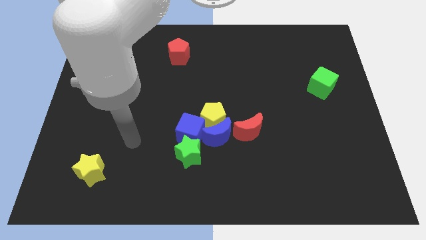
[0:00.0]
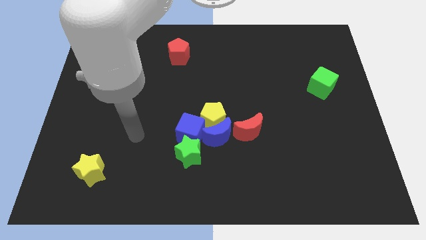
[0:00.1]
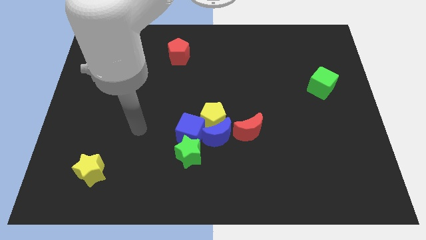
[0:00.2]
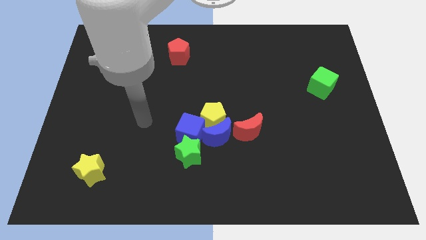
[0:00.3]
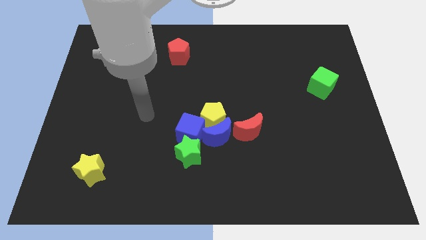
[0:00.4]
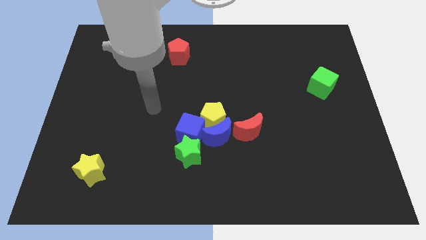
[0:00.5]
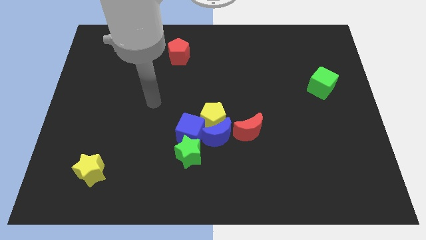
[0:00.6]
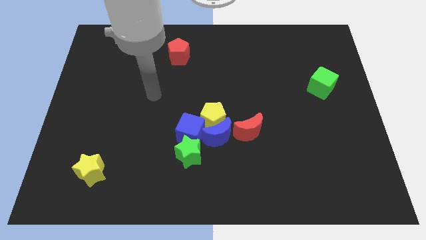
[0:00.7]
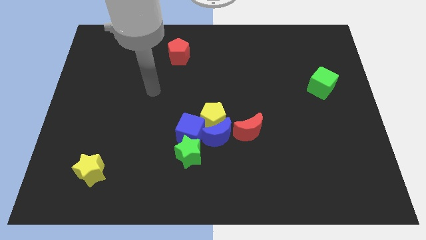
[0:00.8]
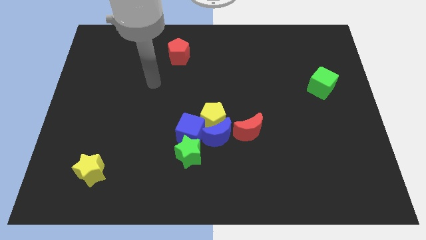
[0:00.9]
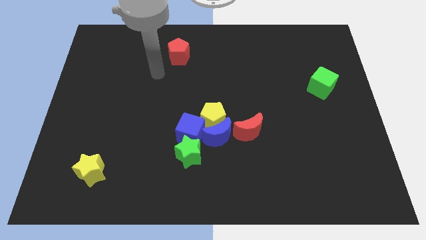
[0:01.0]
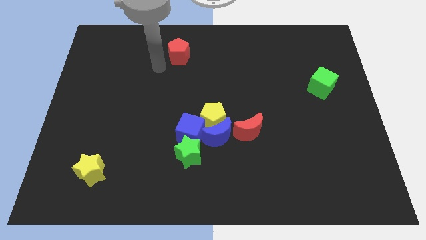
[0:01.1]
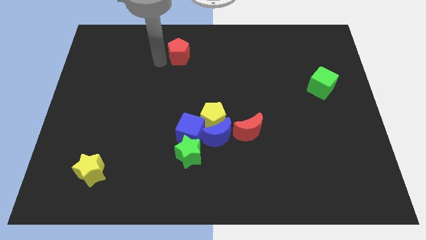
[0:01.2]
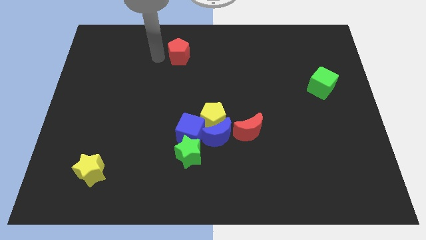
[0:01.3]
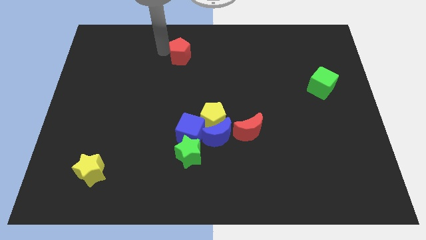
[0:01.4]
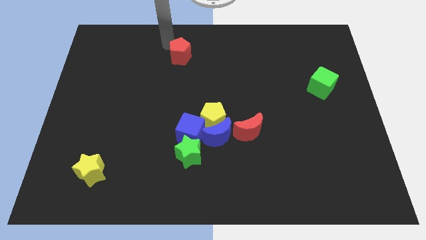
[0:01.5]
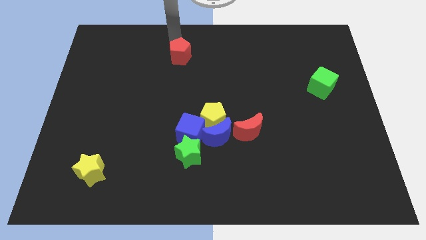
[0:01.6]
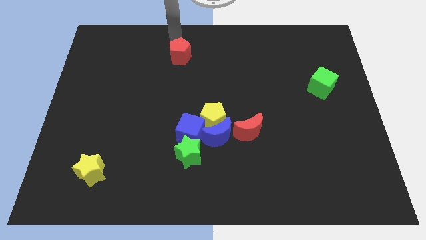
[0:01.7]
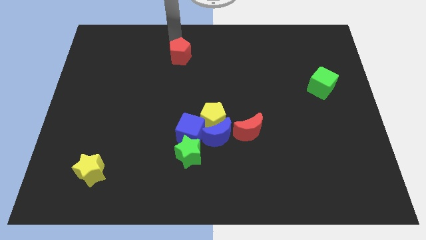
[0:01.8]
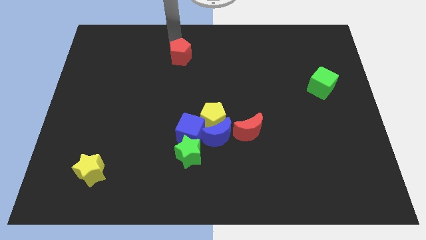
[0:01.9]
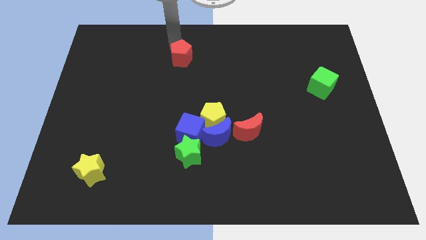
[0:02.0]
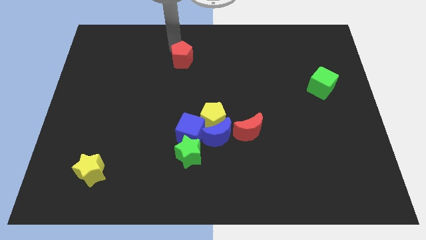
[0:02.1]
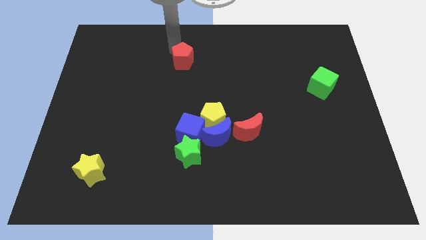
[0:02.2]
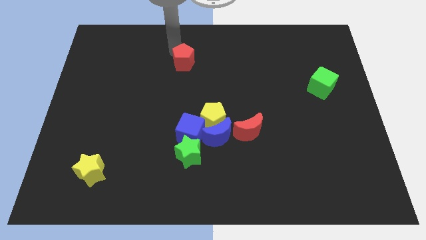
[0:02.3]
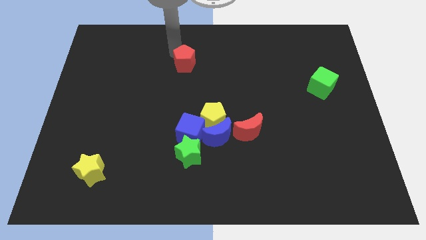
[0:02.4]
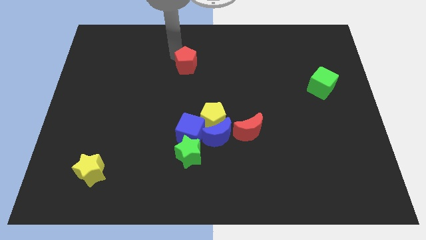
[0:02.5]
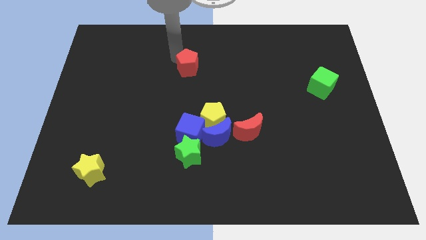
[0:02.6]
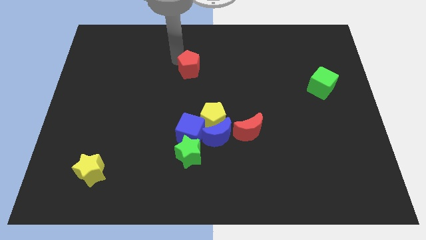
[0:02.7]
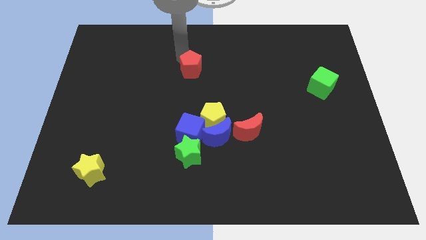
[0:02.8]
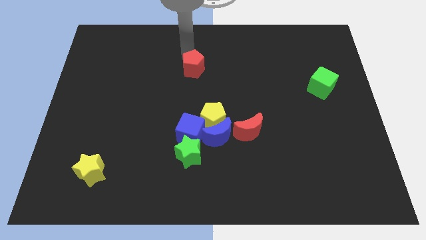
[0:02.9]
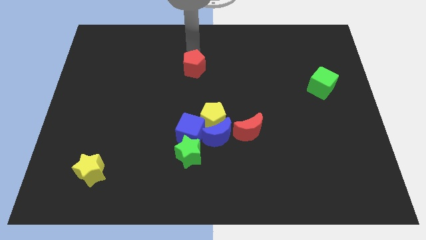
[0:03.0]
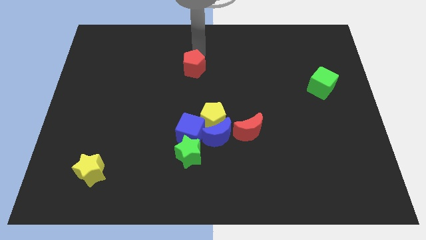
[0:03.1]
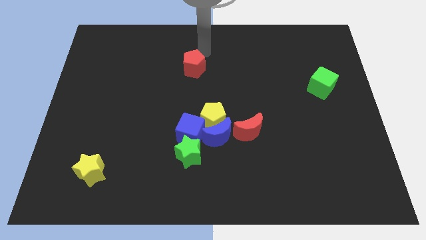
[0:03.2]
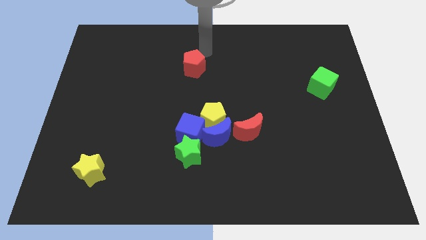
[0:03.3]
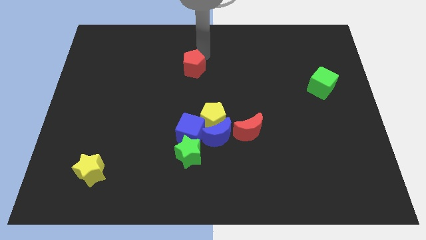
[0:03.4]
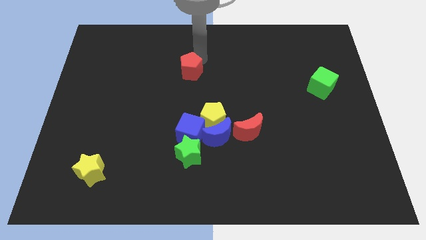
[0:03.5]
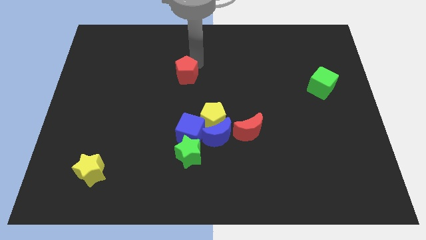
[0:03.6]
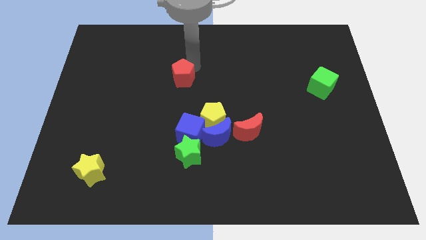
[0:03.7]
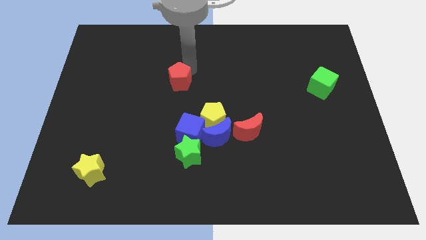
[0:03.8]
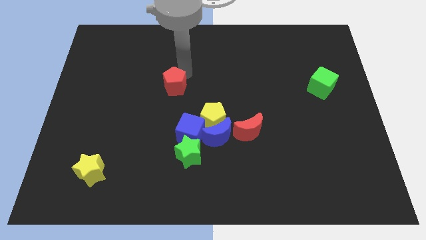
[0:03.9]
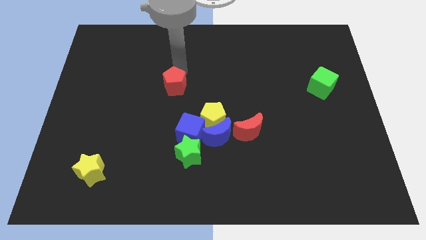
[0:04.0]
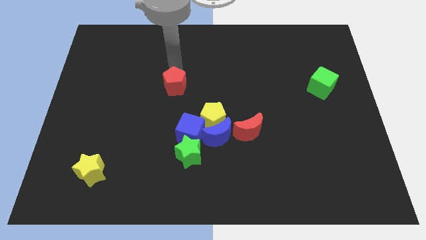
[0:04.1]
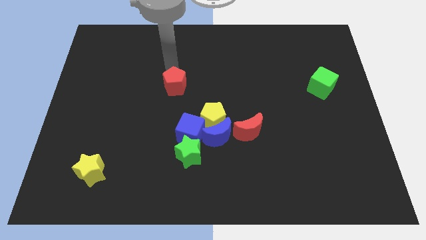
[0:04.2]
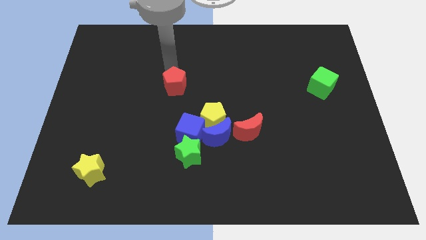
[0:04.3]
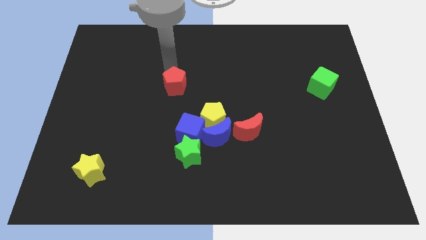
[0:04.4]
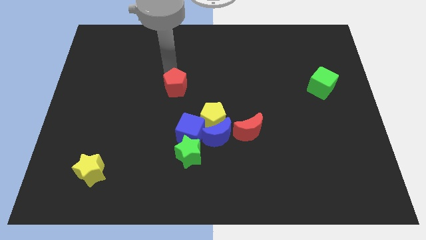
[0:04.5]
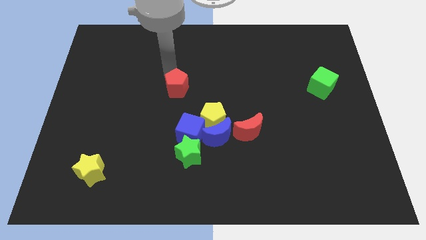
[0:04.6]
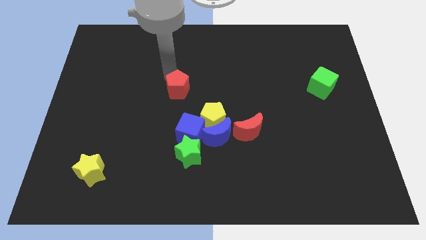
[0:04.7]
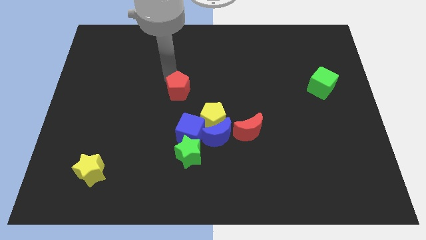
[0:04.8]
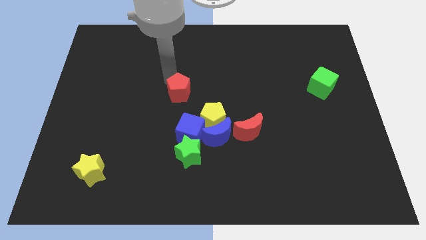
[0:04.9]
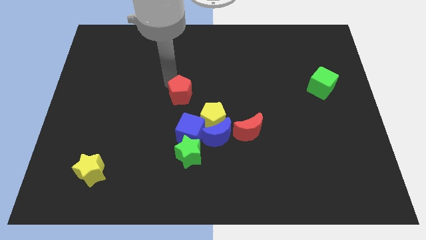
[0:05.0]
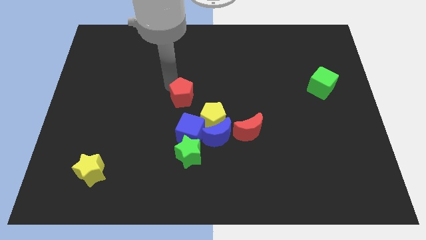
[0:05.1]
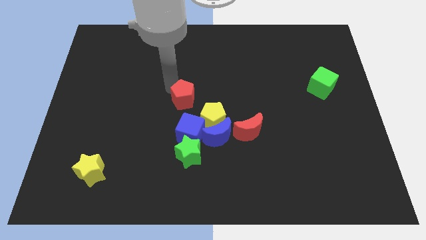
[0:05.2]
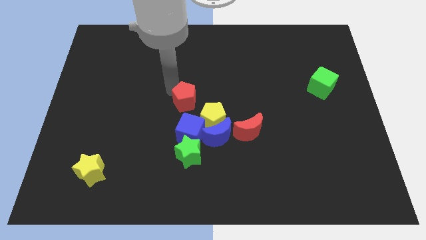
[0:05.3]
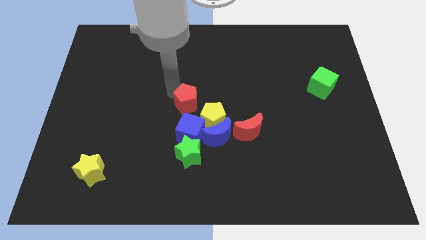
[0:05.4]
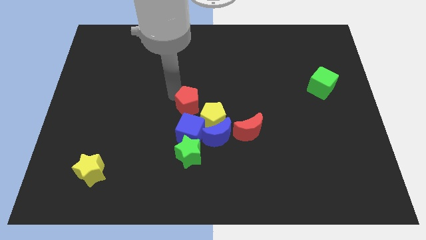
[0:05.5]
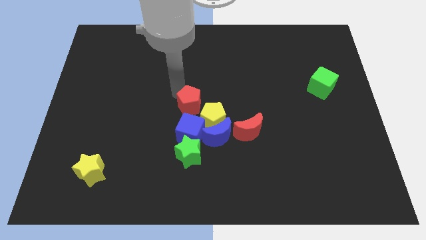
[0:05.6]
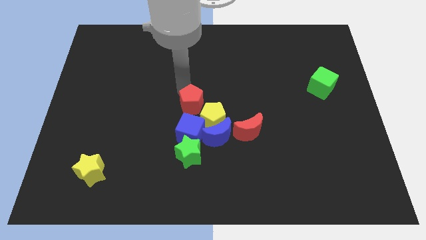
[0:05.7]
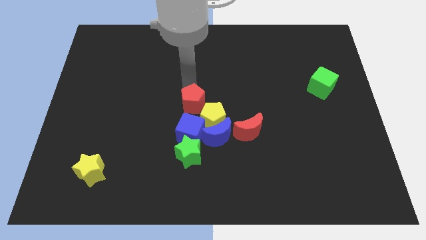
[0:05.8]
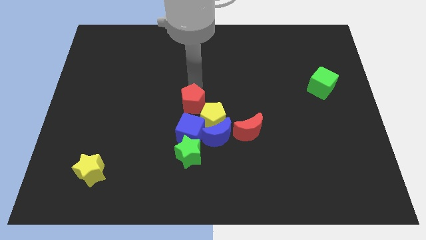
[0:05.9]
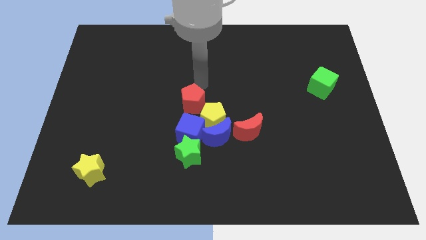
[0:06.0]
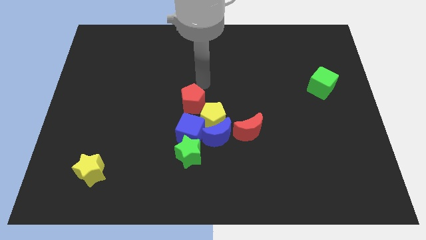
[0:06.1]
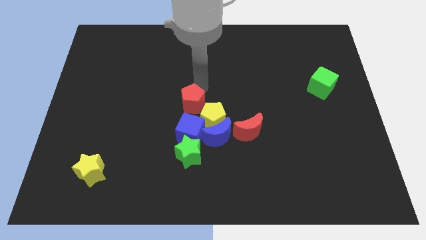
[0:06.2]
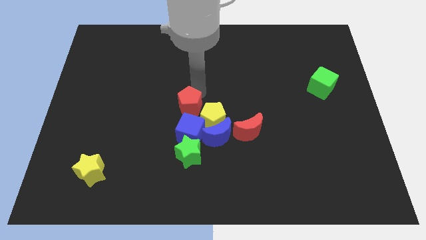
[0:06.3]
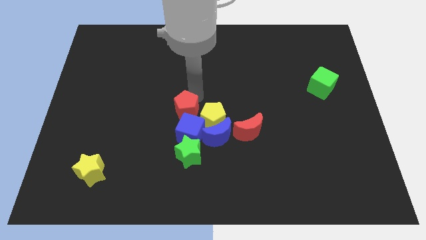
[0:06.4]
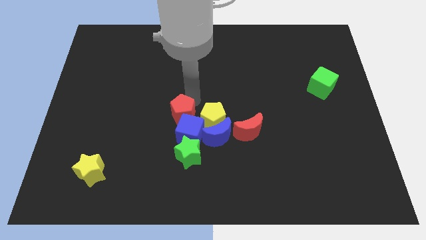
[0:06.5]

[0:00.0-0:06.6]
slide the red pentagon to the blue cube

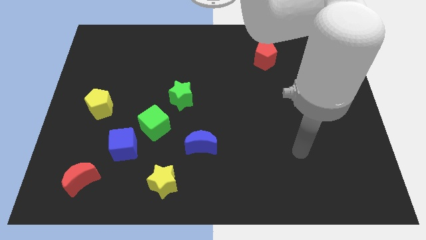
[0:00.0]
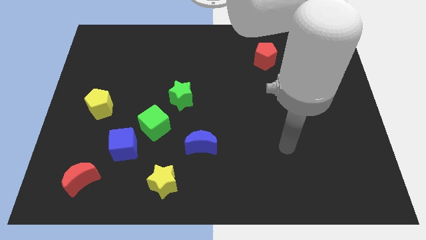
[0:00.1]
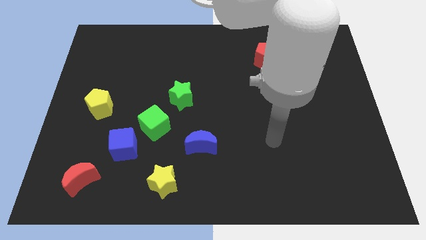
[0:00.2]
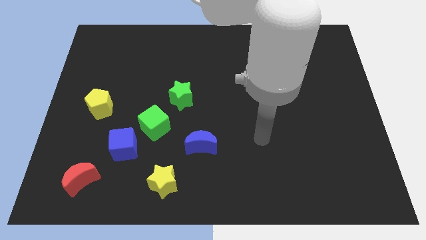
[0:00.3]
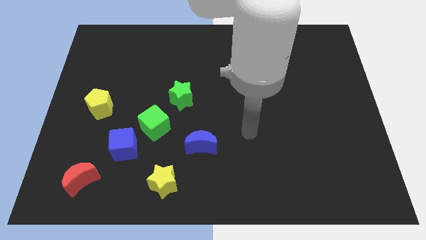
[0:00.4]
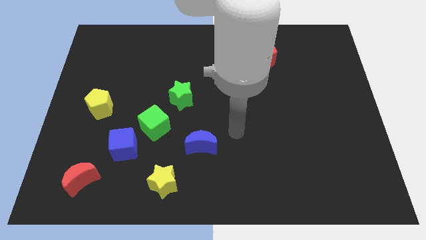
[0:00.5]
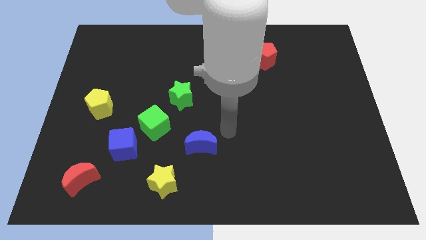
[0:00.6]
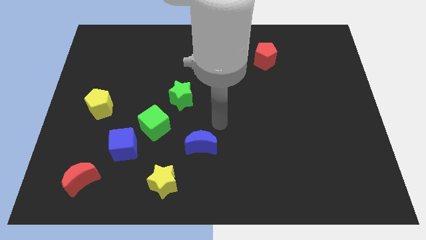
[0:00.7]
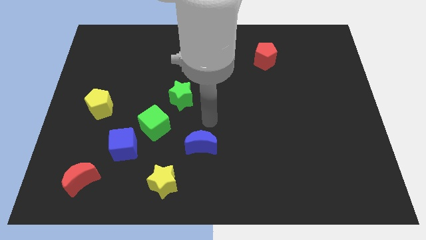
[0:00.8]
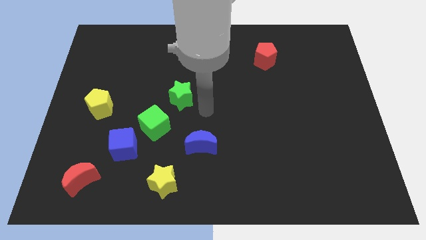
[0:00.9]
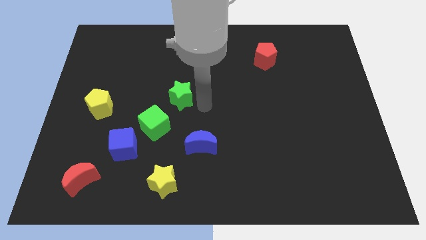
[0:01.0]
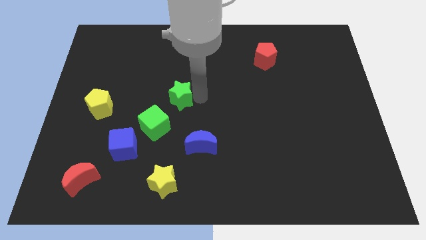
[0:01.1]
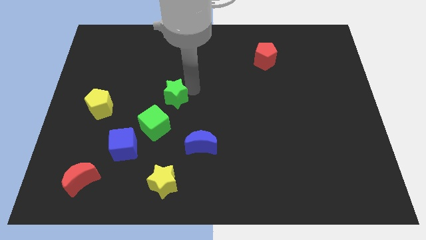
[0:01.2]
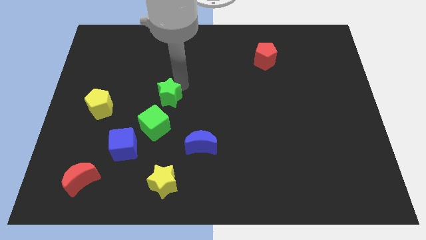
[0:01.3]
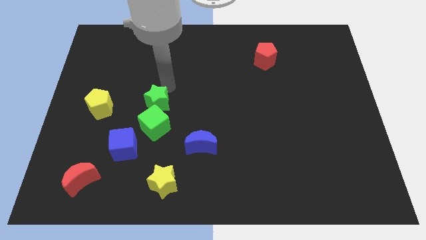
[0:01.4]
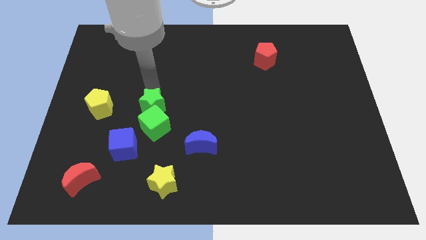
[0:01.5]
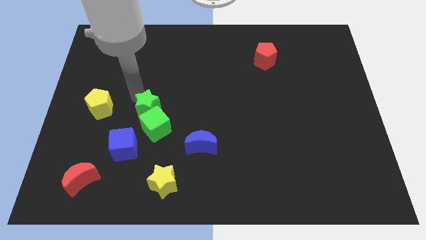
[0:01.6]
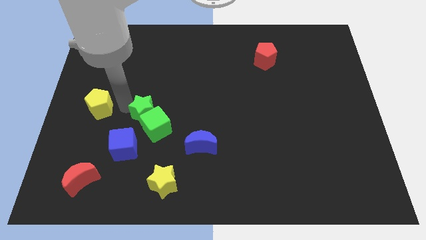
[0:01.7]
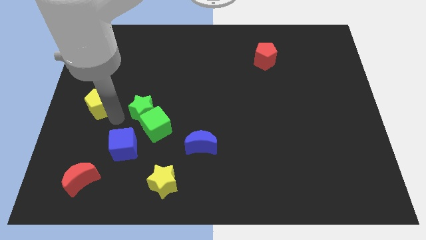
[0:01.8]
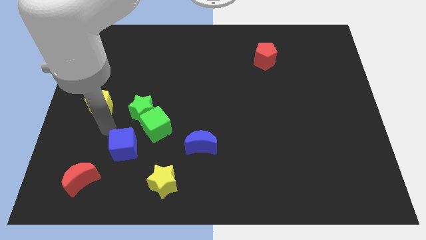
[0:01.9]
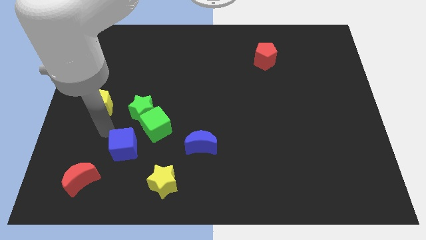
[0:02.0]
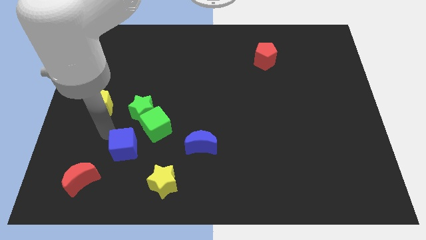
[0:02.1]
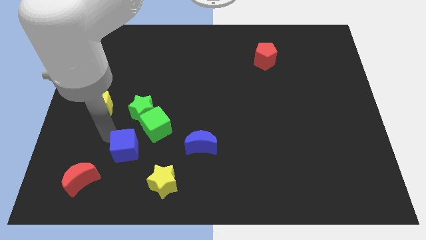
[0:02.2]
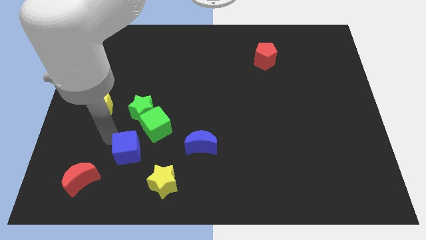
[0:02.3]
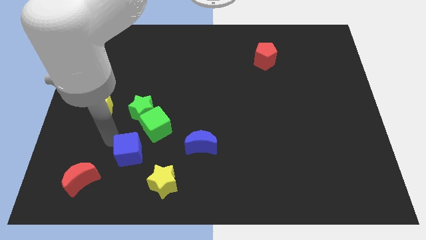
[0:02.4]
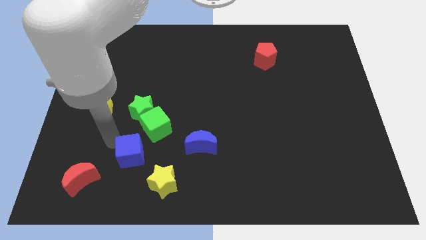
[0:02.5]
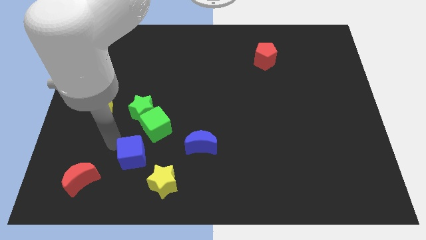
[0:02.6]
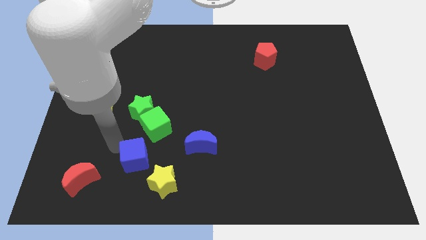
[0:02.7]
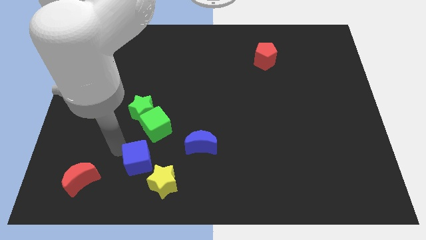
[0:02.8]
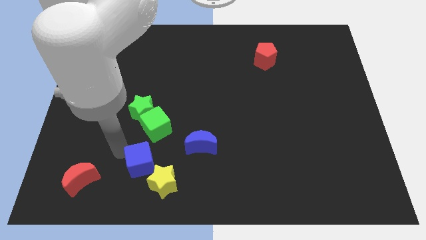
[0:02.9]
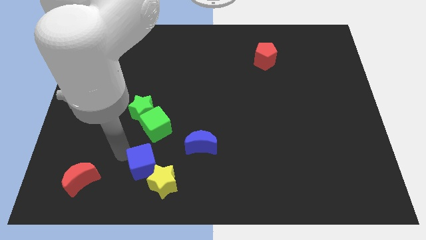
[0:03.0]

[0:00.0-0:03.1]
put the blue cube close to the yellow star
